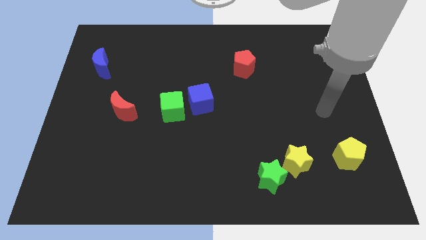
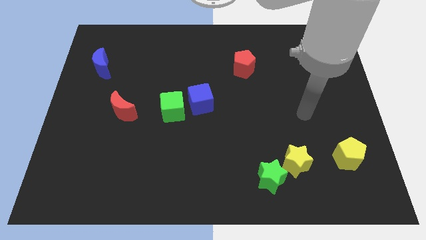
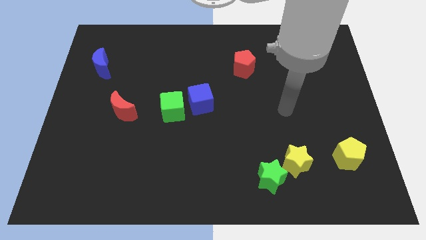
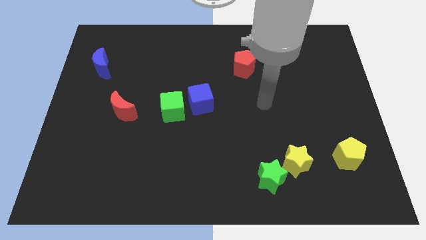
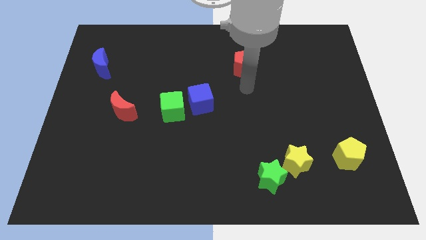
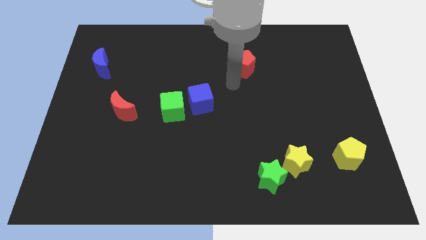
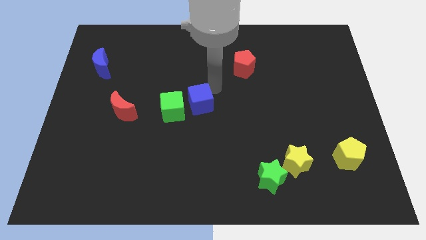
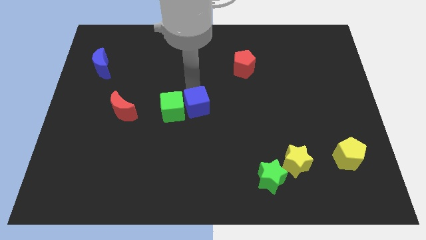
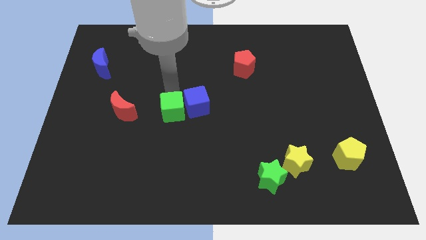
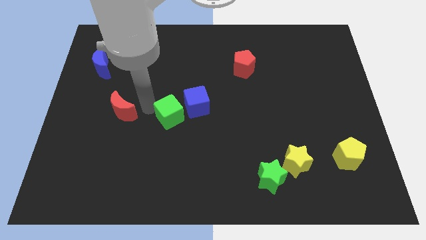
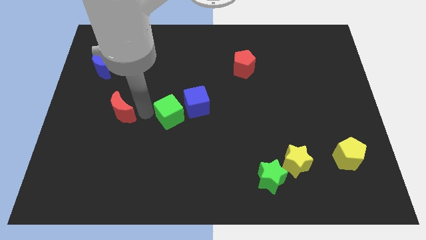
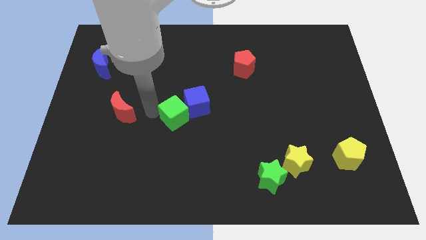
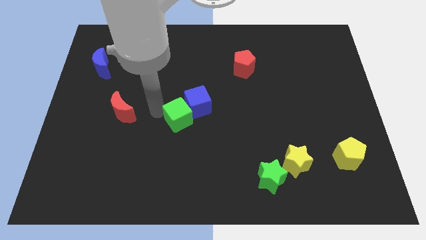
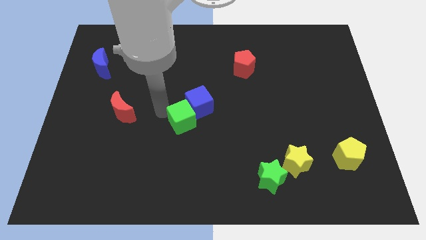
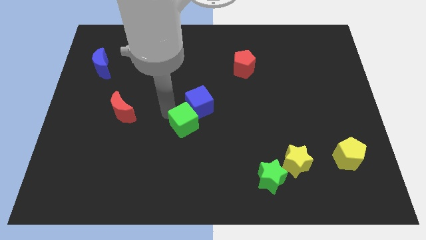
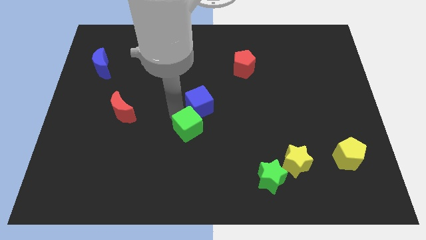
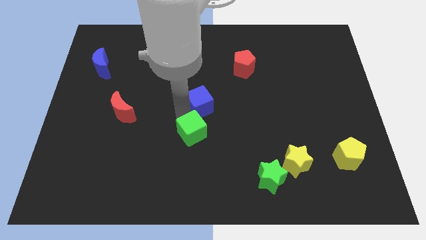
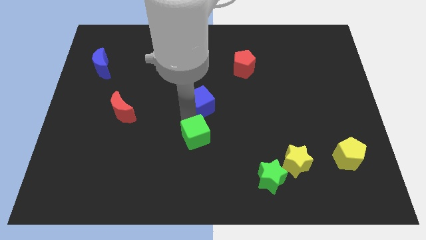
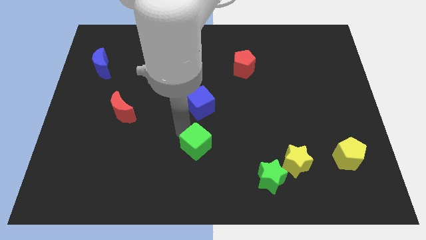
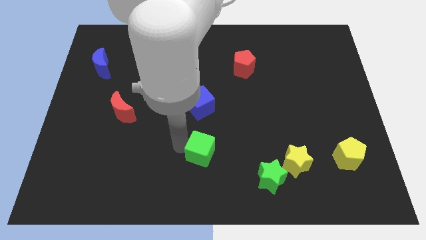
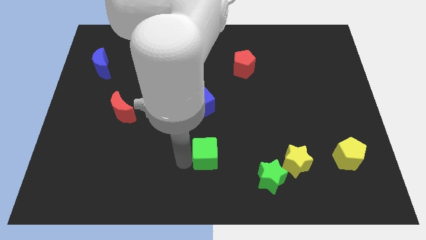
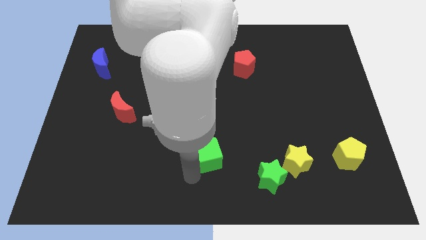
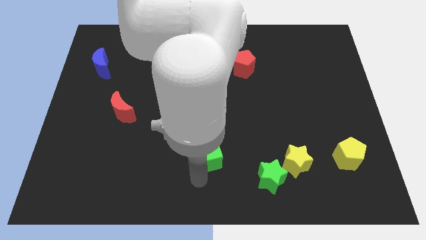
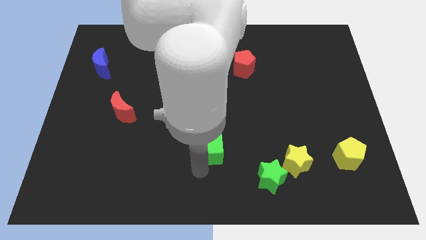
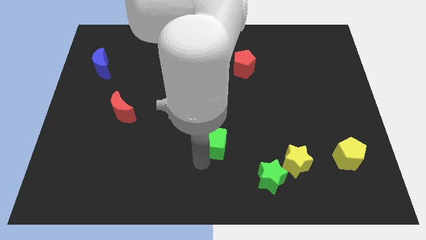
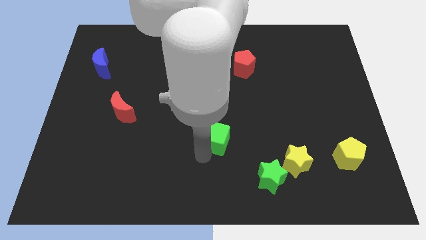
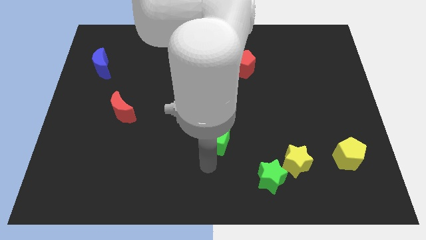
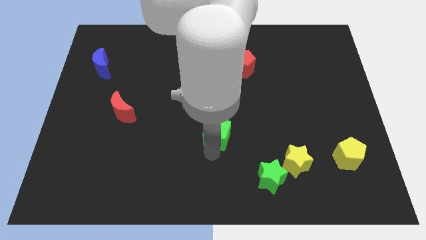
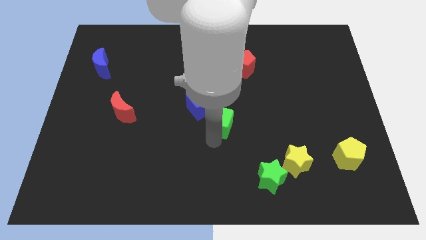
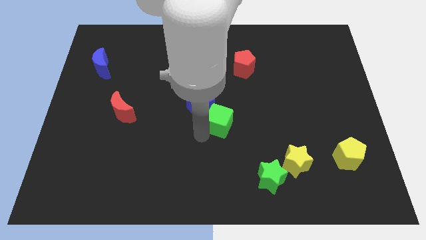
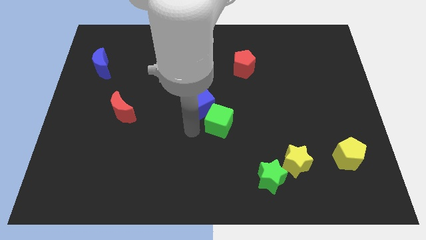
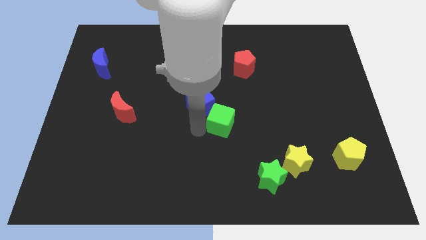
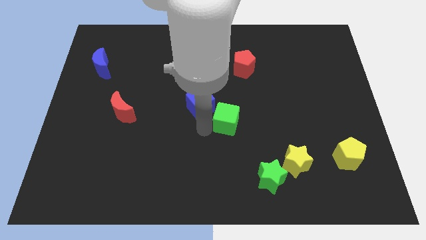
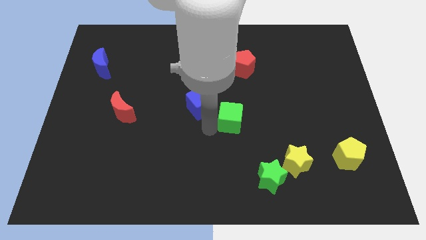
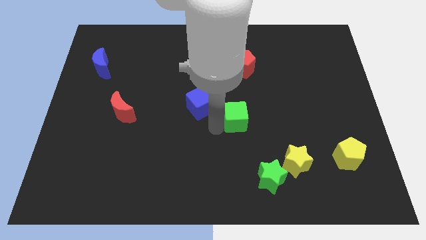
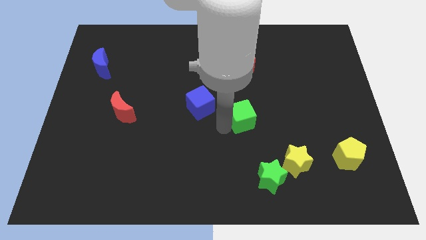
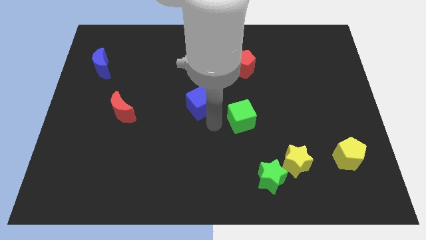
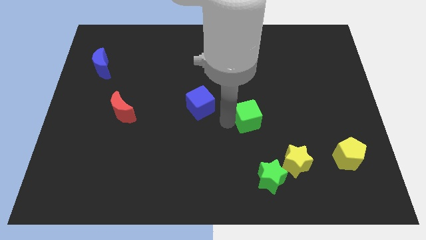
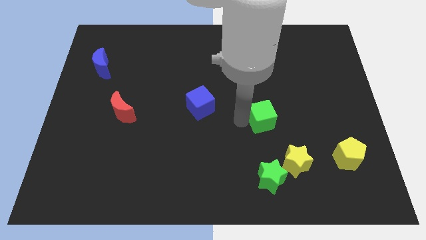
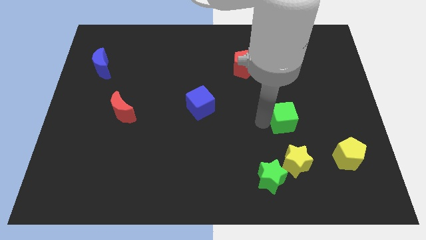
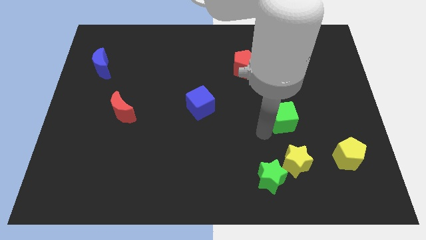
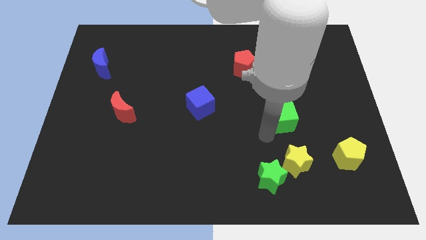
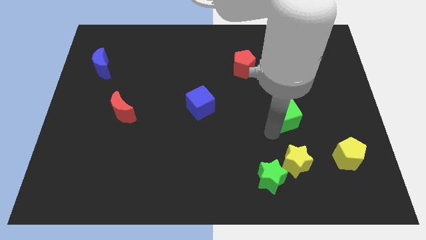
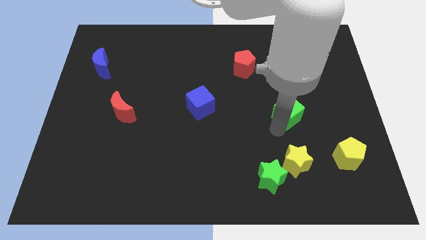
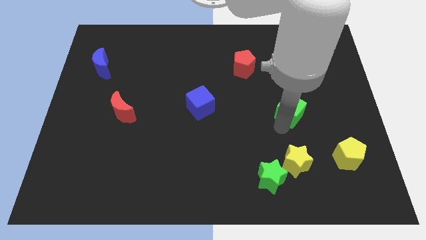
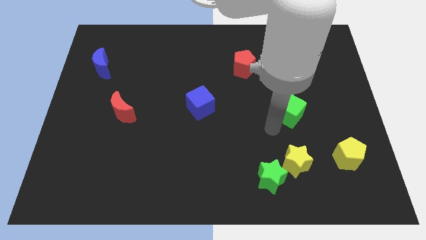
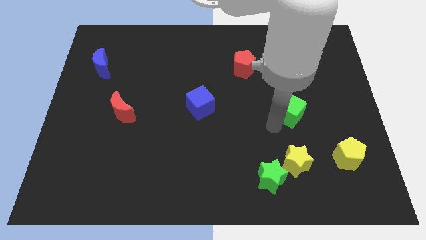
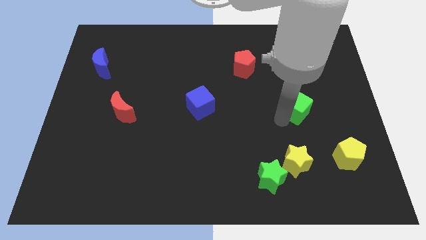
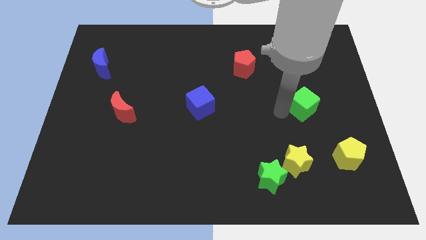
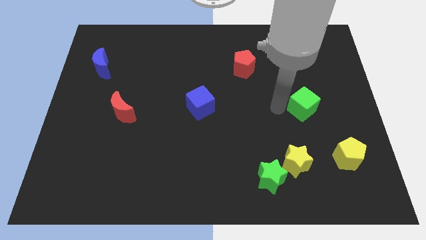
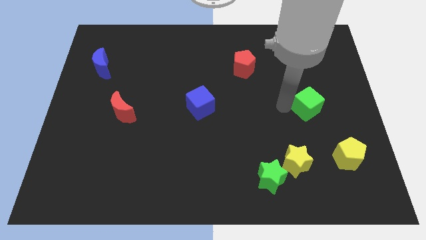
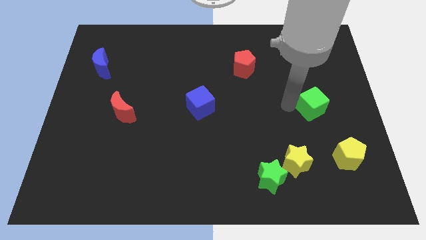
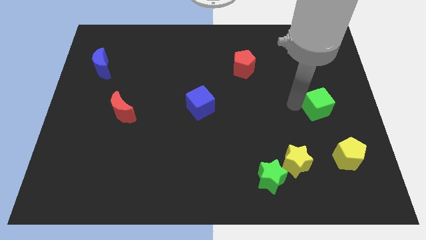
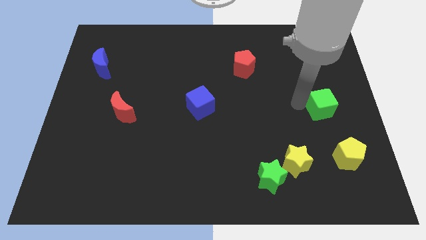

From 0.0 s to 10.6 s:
move the green cube to the right side
